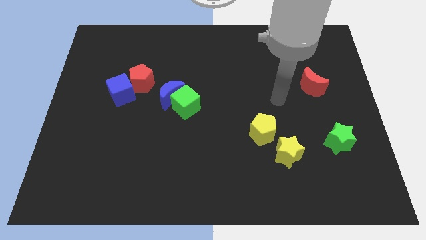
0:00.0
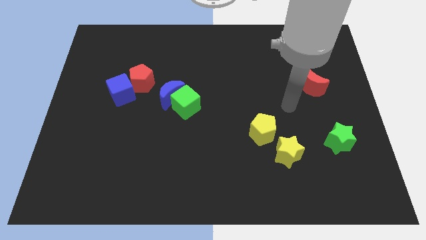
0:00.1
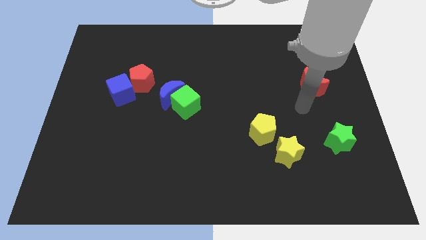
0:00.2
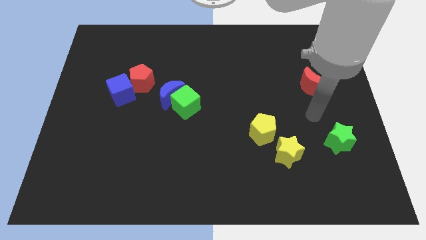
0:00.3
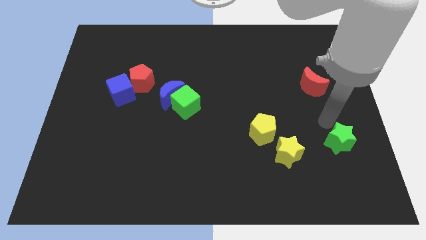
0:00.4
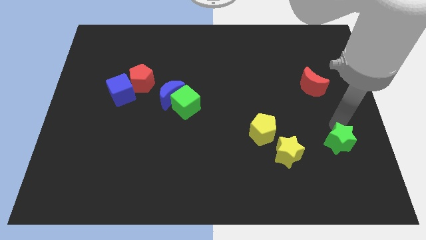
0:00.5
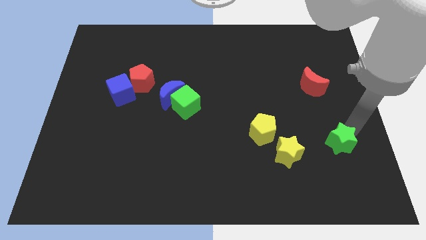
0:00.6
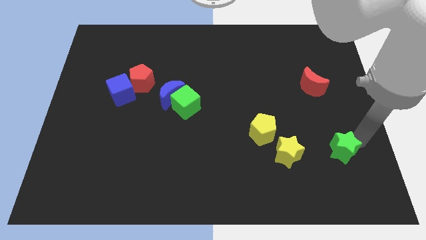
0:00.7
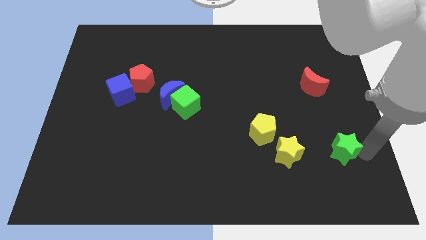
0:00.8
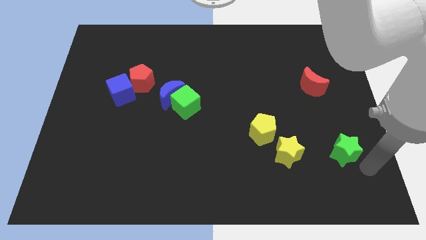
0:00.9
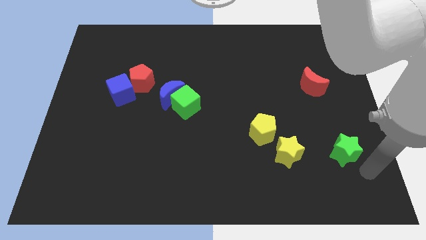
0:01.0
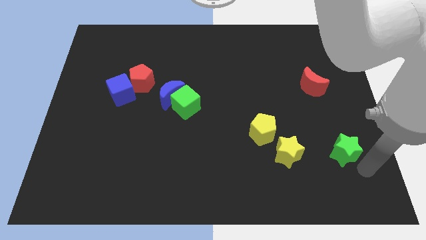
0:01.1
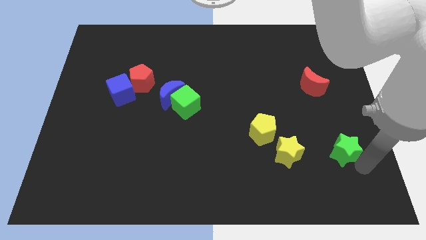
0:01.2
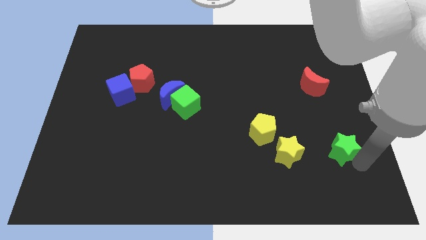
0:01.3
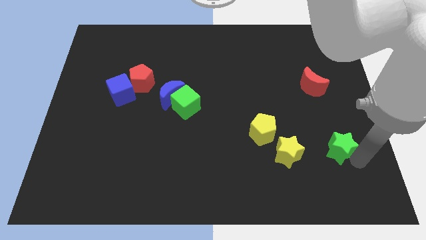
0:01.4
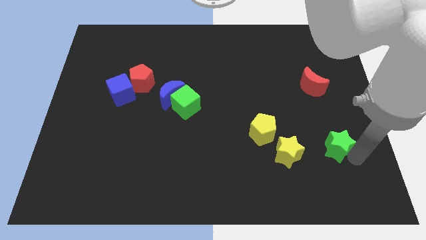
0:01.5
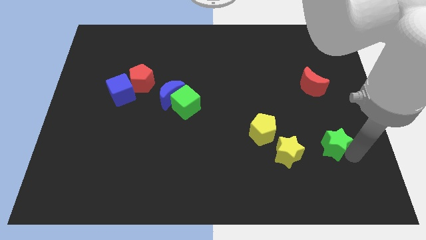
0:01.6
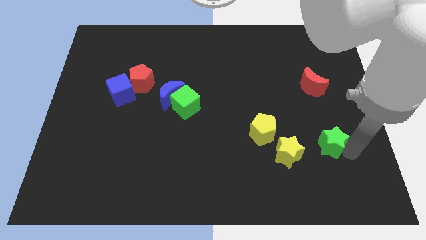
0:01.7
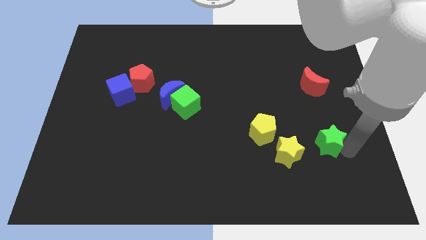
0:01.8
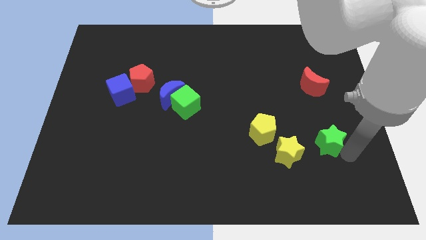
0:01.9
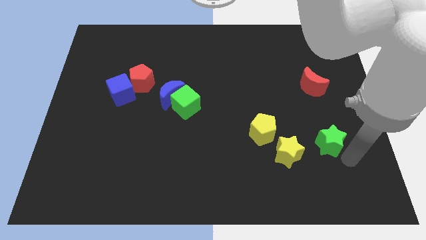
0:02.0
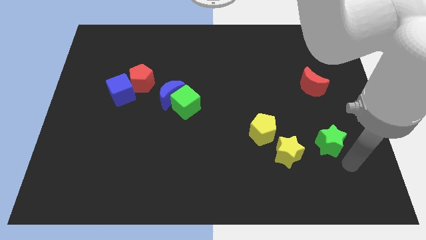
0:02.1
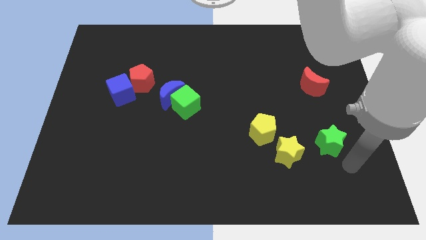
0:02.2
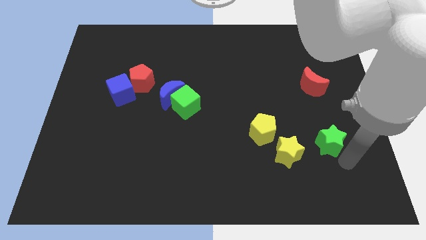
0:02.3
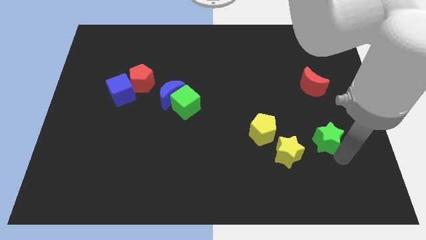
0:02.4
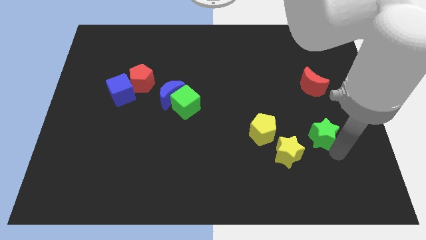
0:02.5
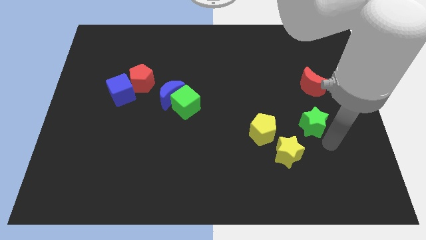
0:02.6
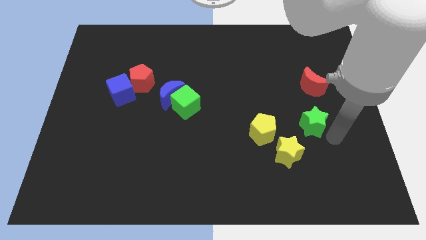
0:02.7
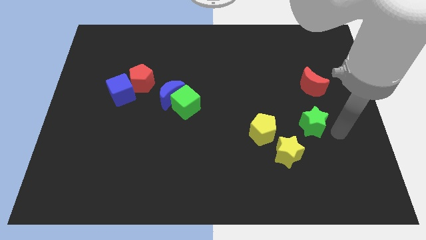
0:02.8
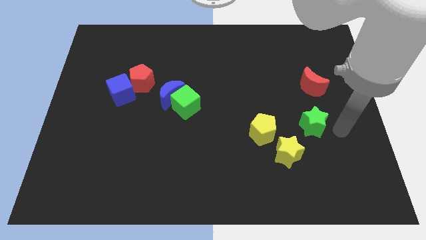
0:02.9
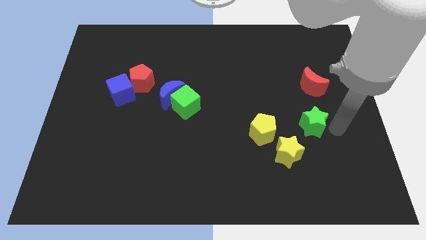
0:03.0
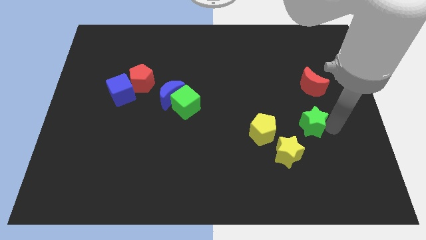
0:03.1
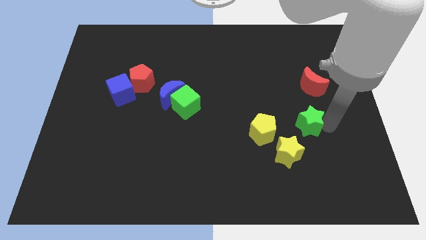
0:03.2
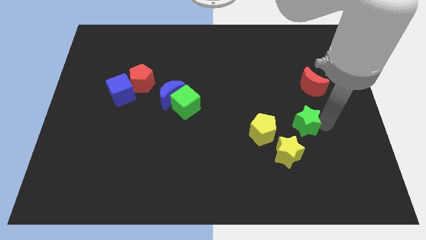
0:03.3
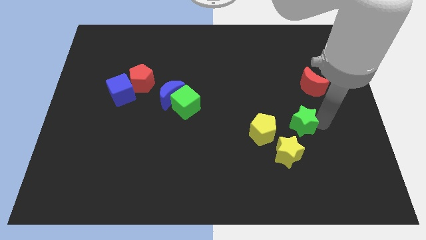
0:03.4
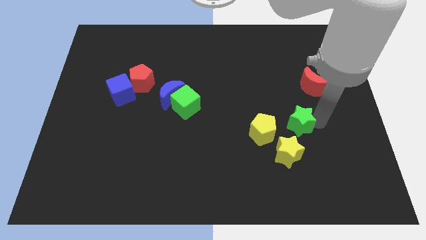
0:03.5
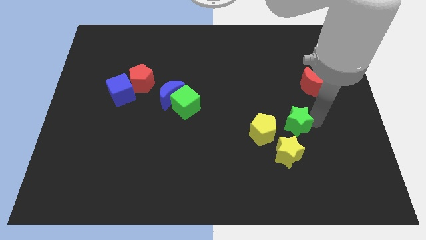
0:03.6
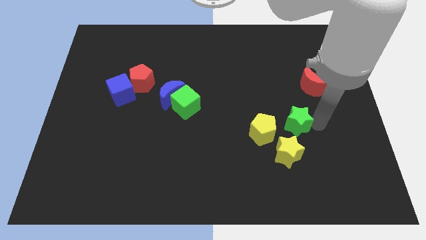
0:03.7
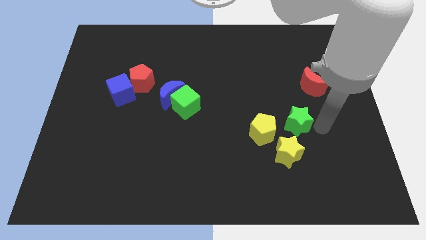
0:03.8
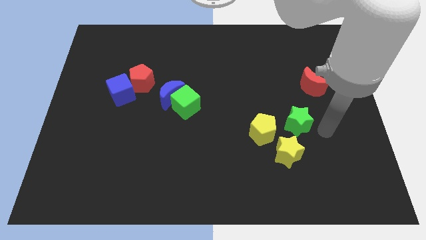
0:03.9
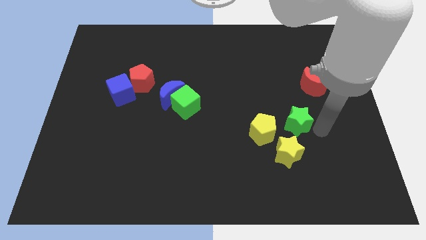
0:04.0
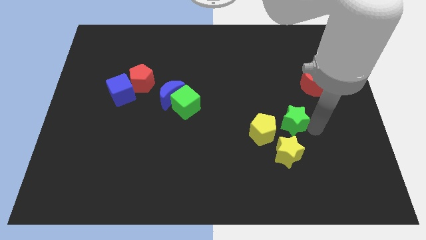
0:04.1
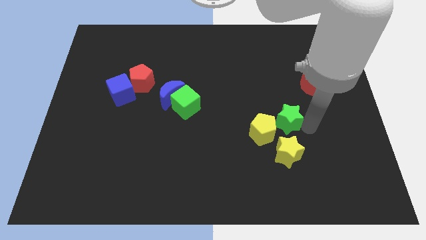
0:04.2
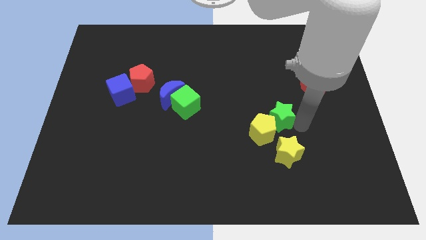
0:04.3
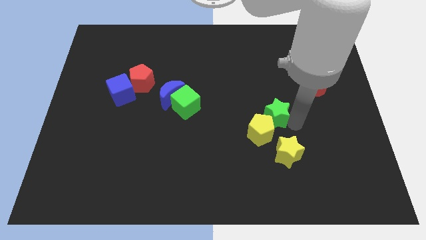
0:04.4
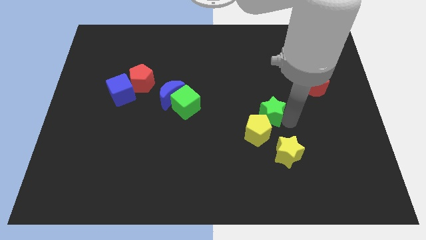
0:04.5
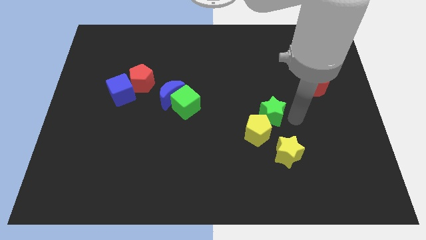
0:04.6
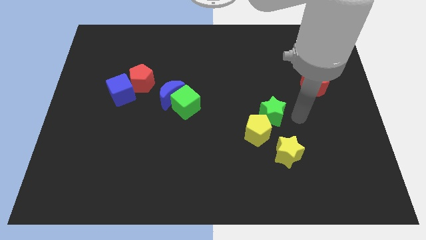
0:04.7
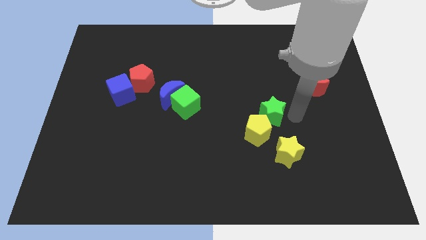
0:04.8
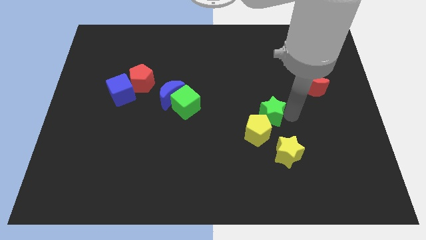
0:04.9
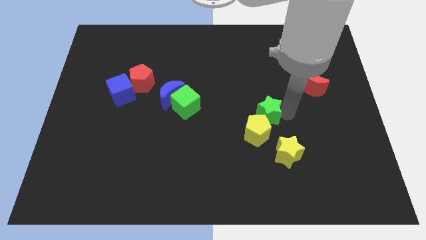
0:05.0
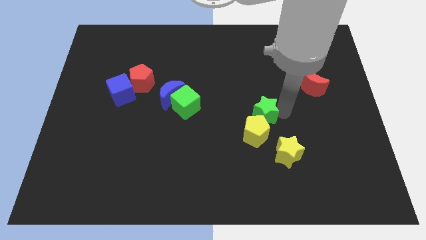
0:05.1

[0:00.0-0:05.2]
slide the green star to the center of the board
